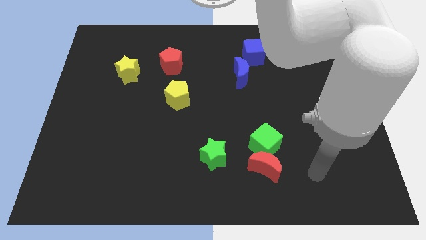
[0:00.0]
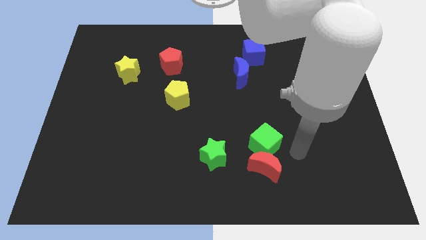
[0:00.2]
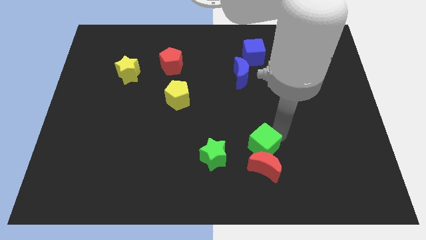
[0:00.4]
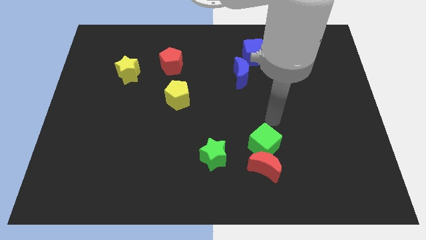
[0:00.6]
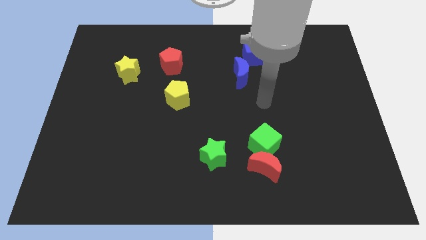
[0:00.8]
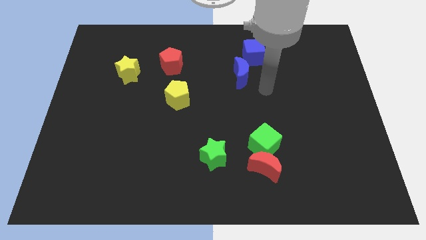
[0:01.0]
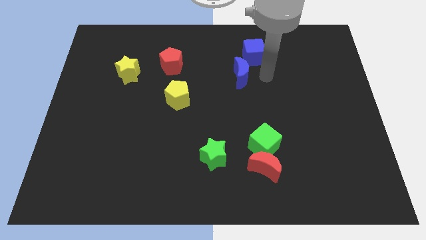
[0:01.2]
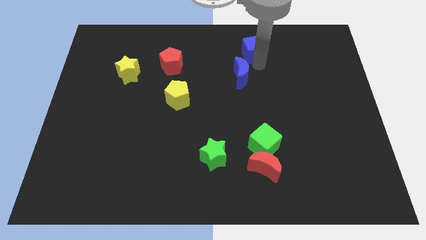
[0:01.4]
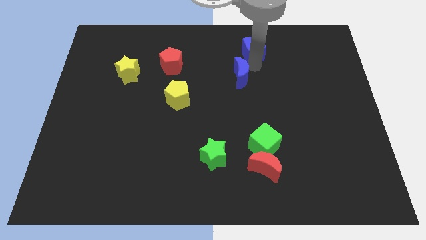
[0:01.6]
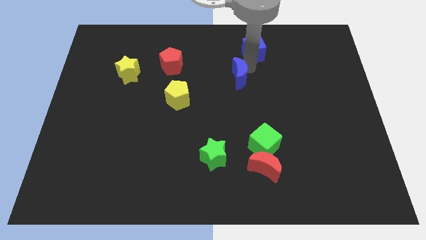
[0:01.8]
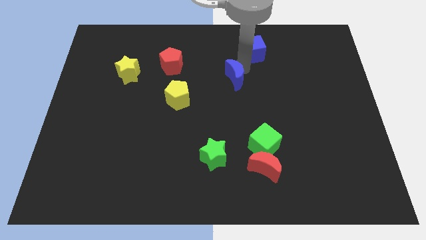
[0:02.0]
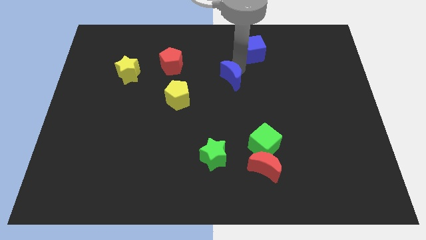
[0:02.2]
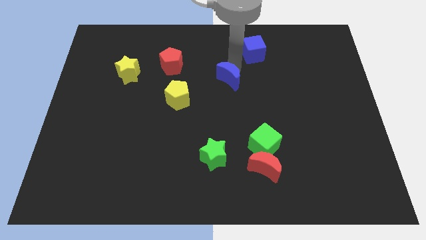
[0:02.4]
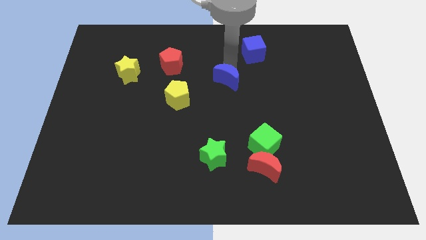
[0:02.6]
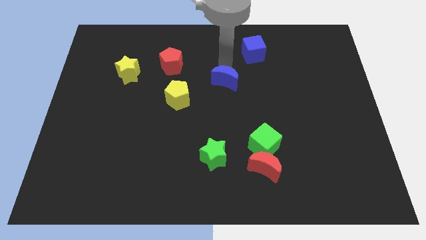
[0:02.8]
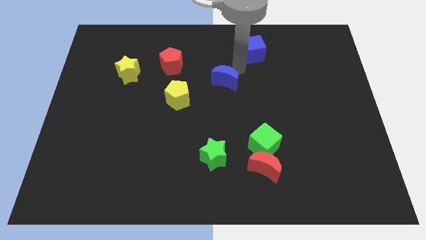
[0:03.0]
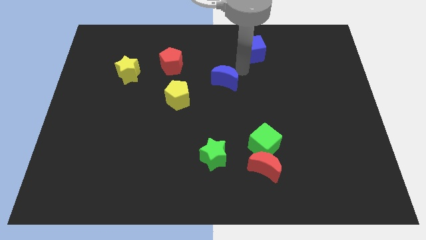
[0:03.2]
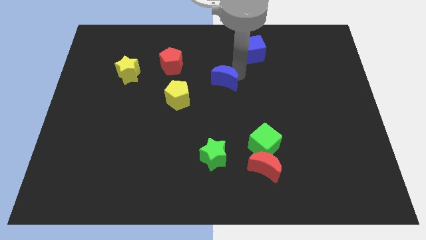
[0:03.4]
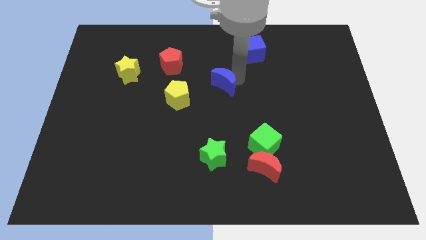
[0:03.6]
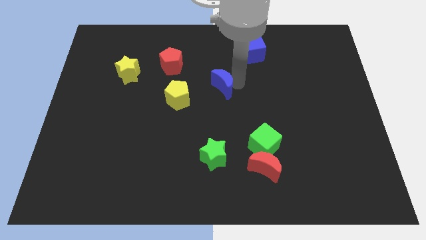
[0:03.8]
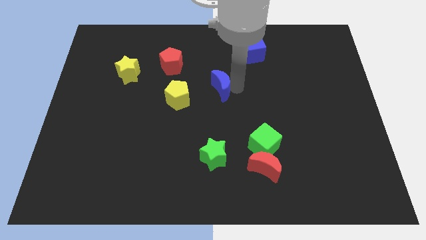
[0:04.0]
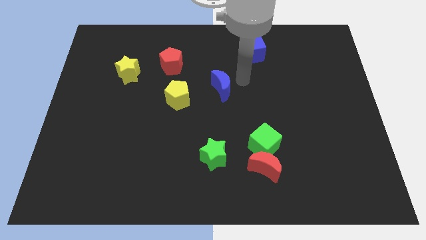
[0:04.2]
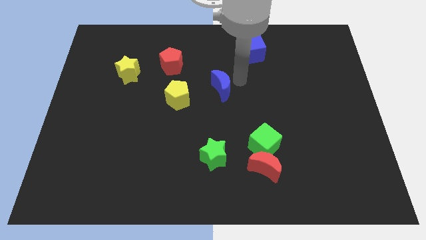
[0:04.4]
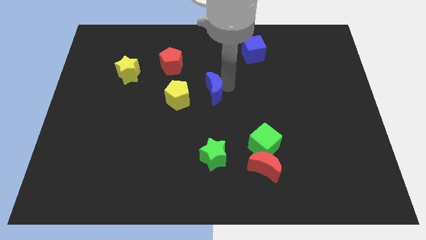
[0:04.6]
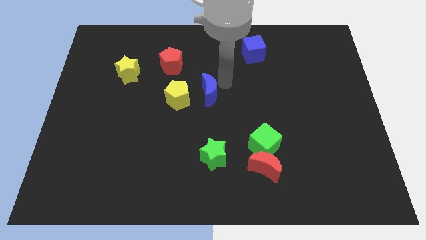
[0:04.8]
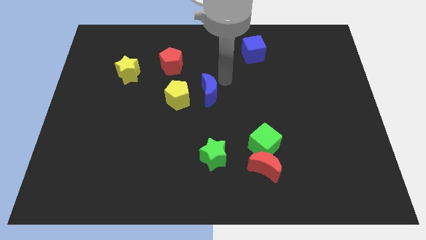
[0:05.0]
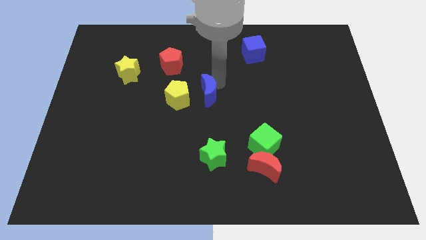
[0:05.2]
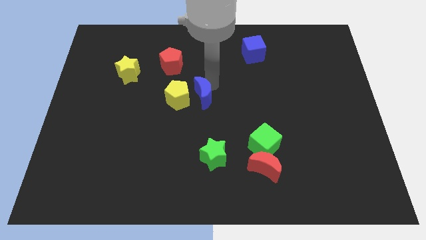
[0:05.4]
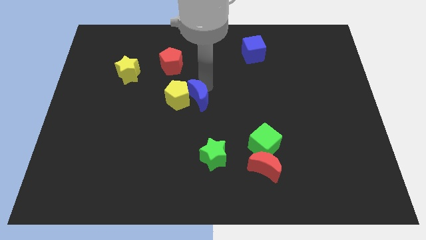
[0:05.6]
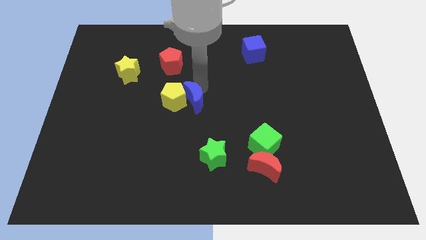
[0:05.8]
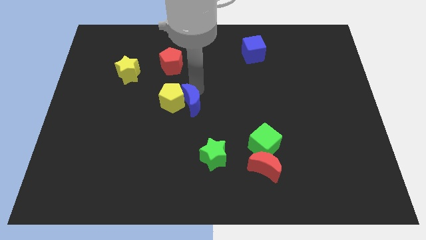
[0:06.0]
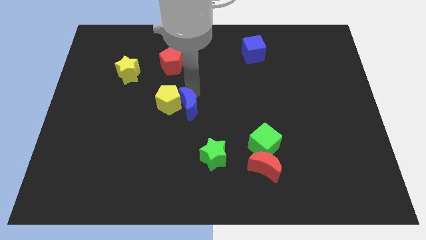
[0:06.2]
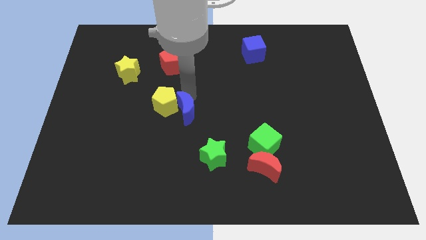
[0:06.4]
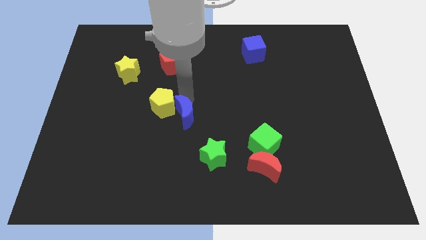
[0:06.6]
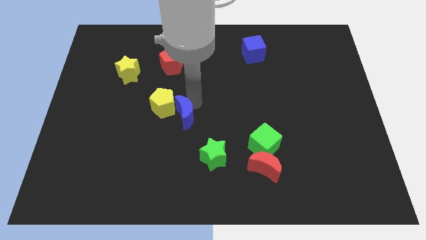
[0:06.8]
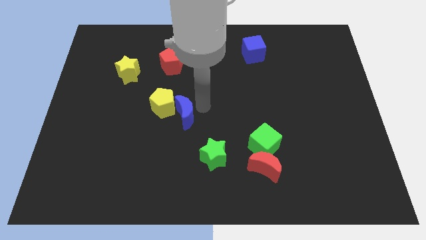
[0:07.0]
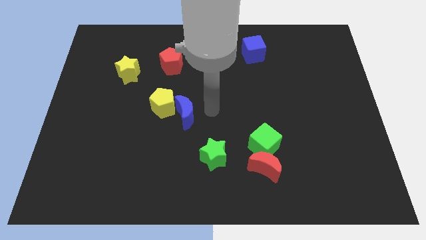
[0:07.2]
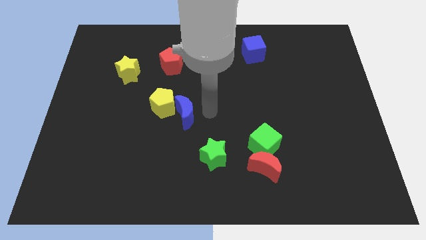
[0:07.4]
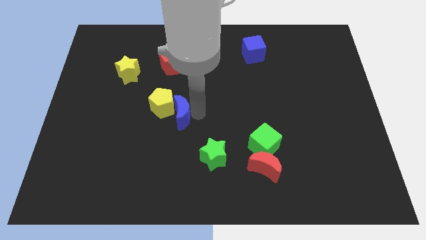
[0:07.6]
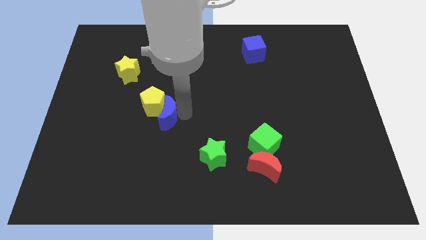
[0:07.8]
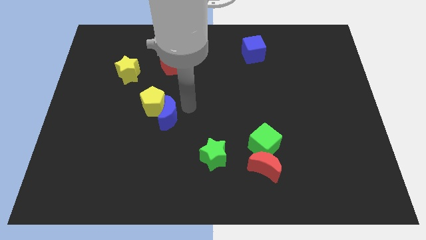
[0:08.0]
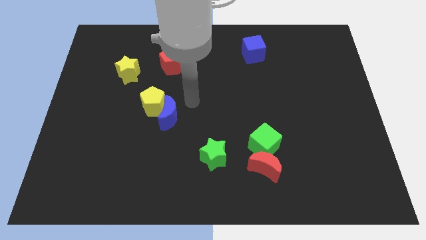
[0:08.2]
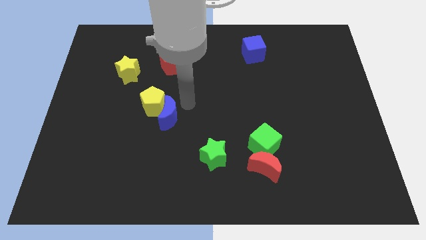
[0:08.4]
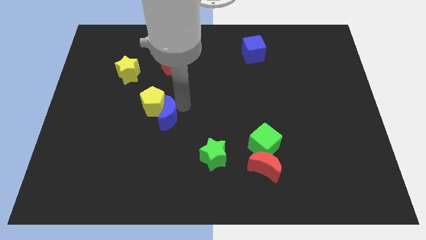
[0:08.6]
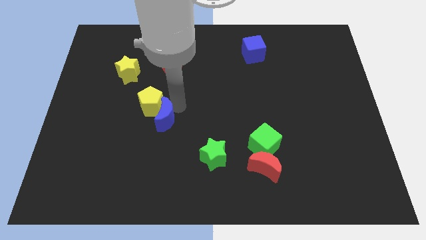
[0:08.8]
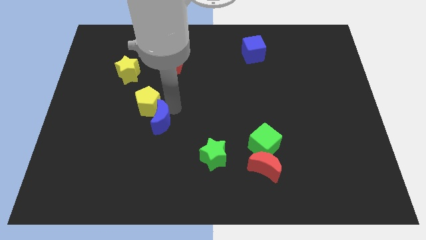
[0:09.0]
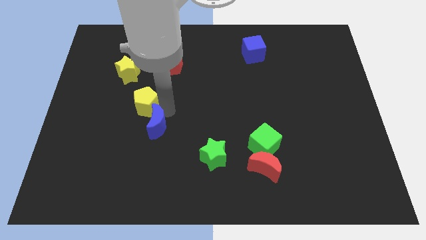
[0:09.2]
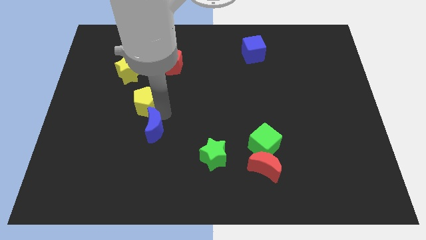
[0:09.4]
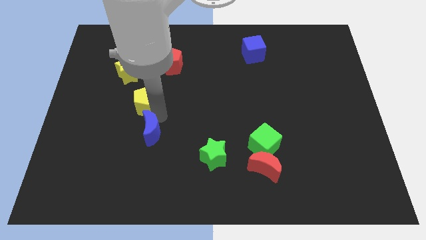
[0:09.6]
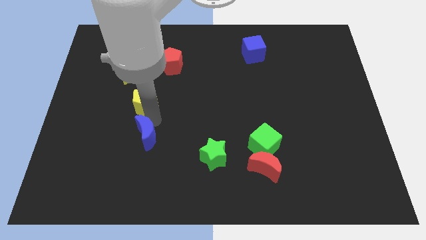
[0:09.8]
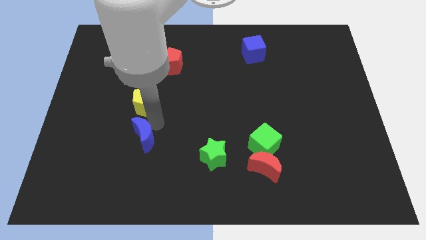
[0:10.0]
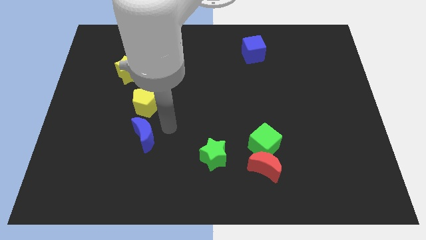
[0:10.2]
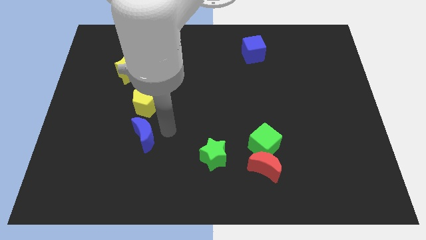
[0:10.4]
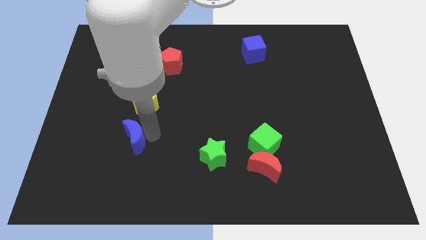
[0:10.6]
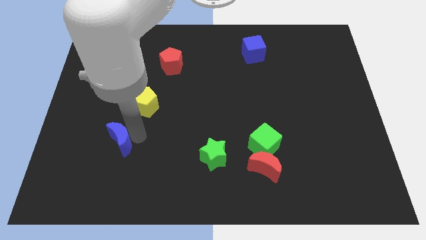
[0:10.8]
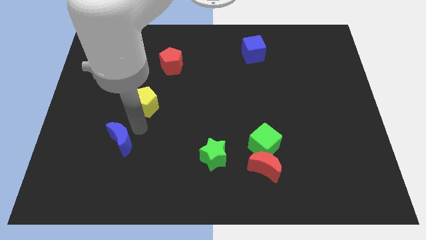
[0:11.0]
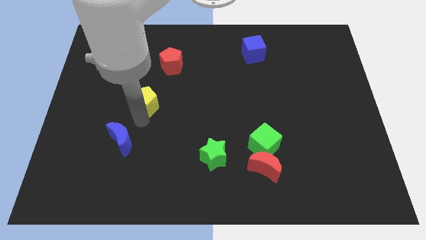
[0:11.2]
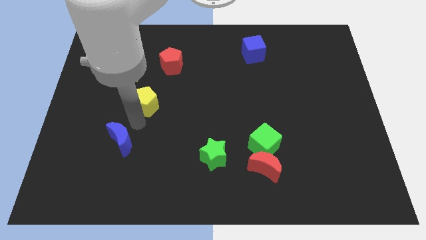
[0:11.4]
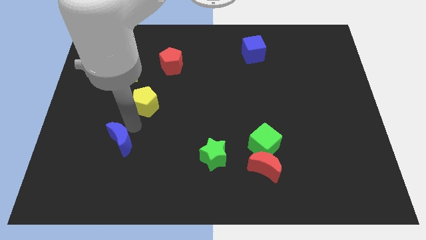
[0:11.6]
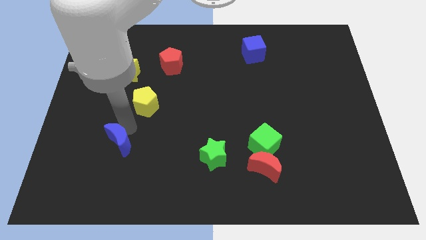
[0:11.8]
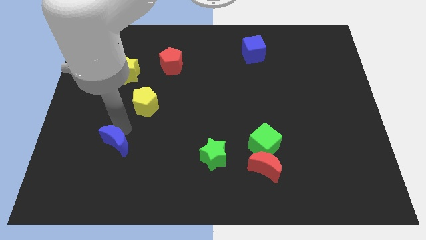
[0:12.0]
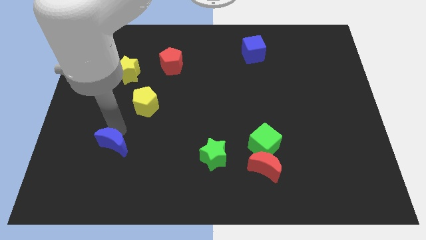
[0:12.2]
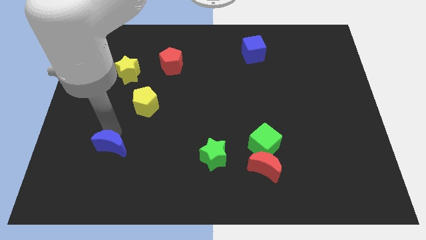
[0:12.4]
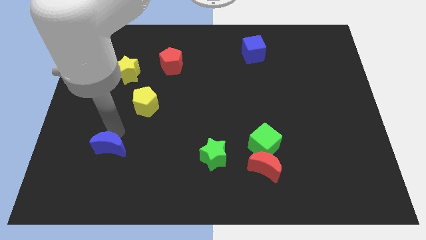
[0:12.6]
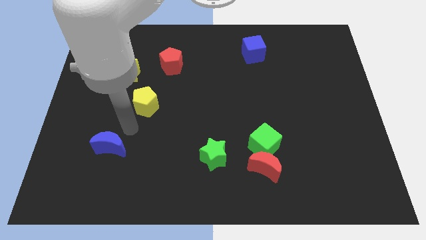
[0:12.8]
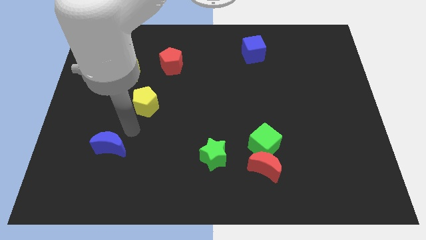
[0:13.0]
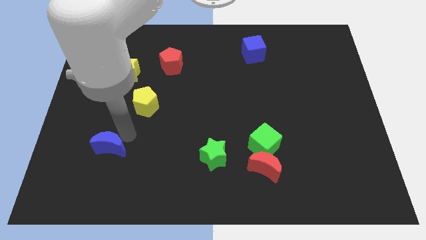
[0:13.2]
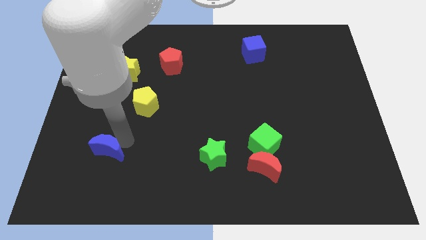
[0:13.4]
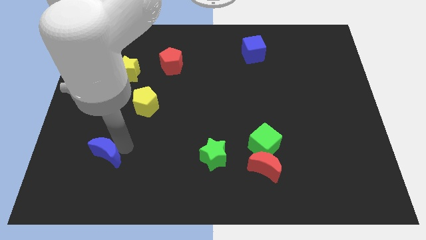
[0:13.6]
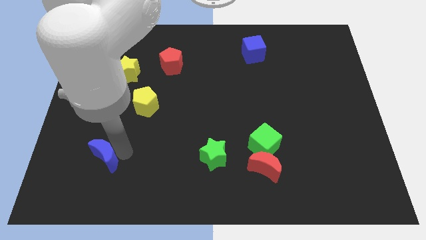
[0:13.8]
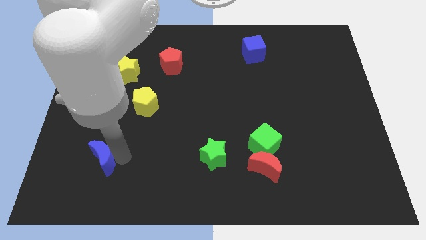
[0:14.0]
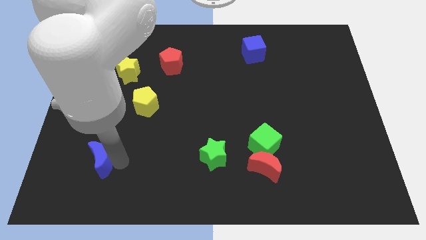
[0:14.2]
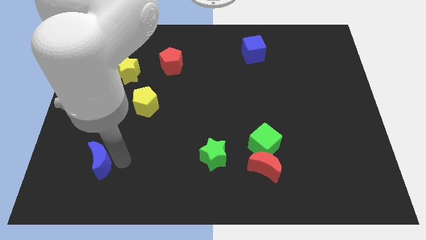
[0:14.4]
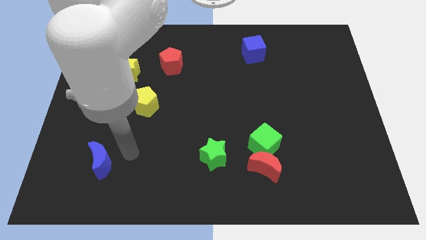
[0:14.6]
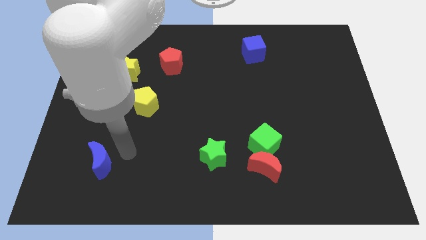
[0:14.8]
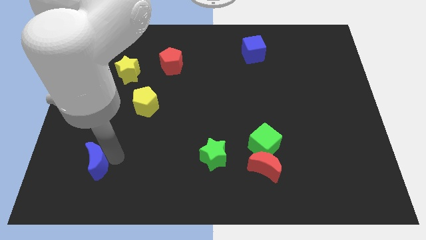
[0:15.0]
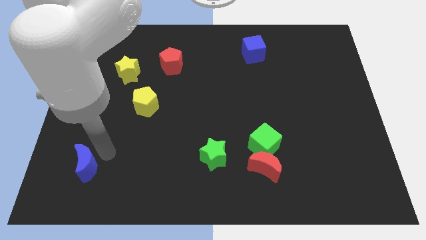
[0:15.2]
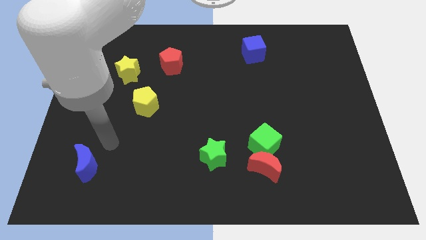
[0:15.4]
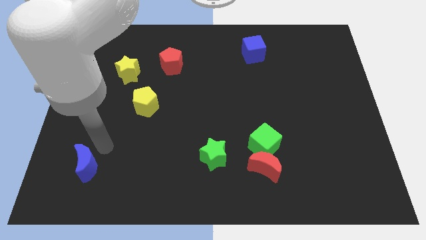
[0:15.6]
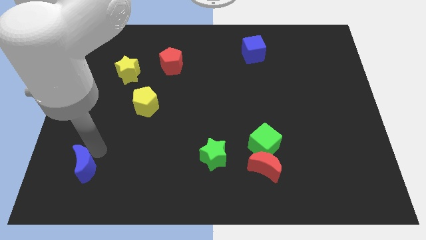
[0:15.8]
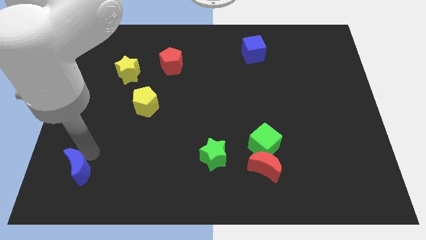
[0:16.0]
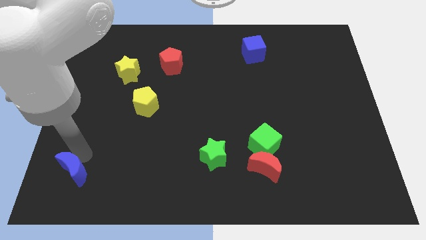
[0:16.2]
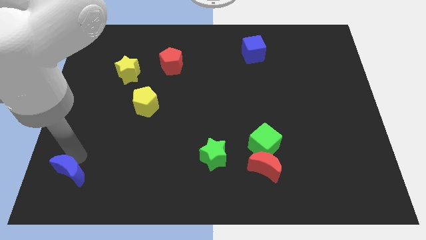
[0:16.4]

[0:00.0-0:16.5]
put the blue moon to the bottom left of the board
